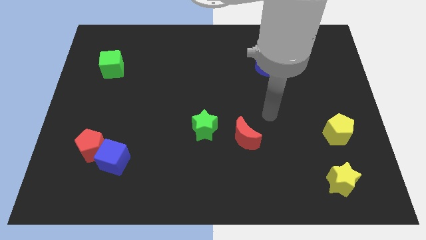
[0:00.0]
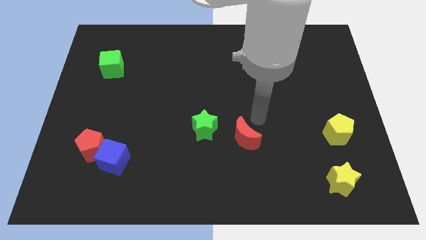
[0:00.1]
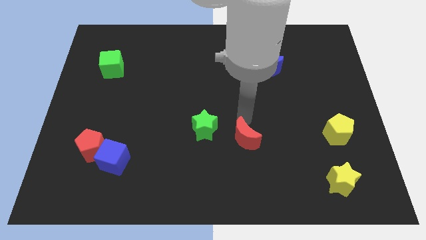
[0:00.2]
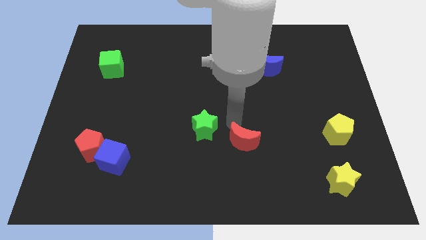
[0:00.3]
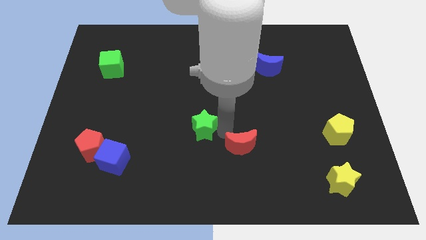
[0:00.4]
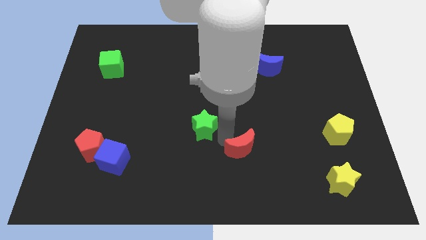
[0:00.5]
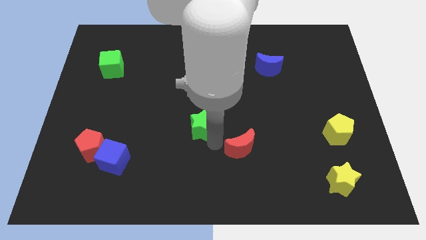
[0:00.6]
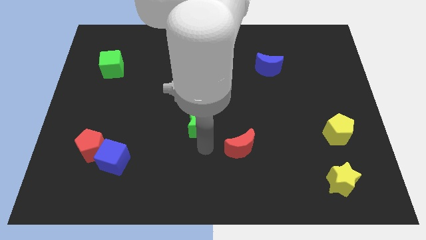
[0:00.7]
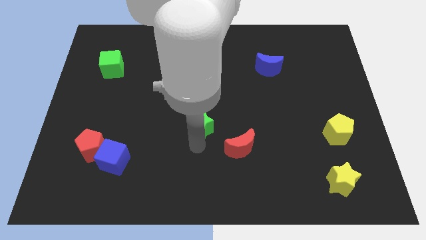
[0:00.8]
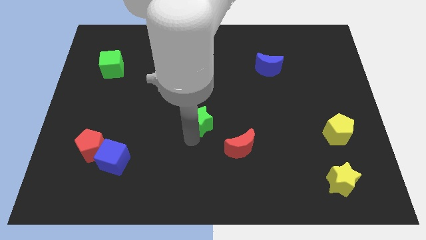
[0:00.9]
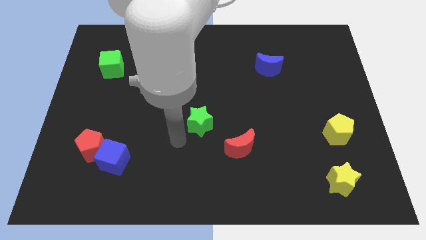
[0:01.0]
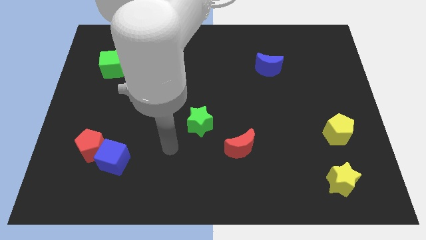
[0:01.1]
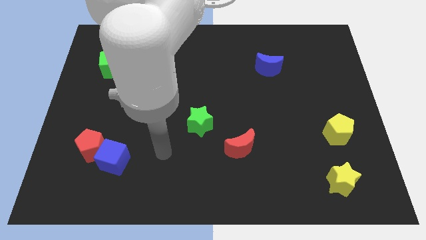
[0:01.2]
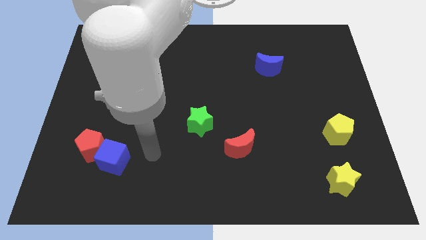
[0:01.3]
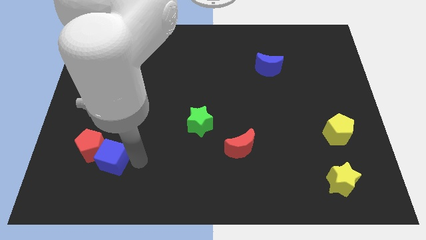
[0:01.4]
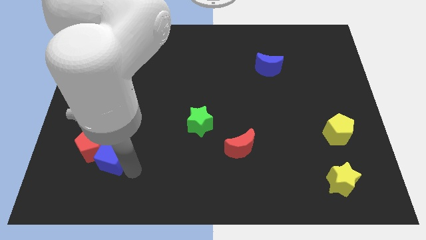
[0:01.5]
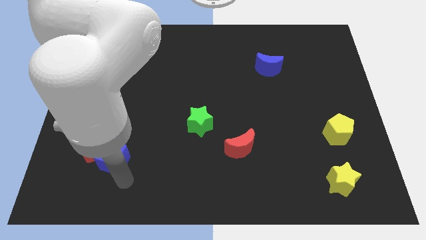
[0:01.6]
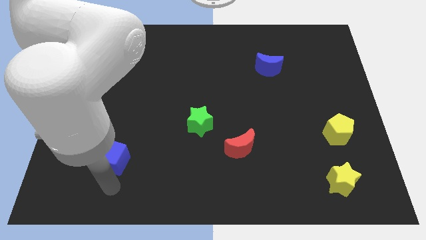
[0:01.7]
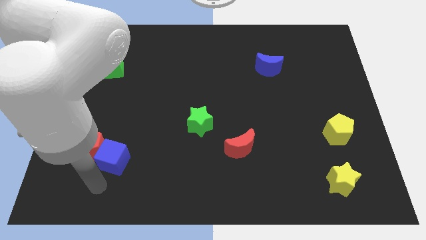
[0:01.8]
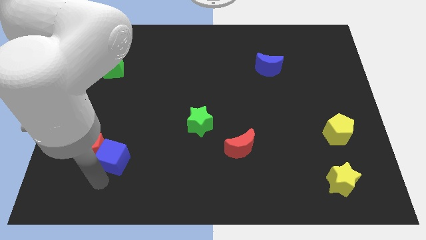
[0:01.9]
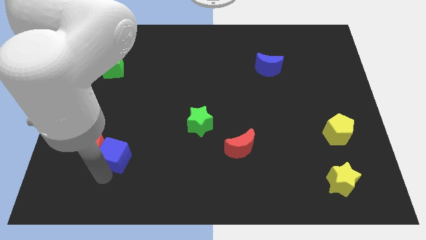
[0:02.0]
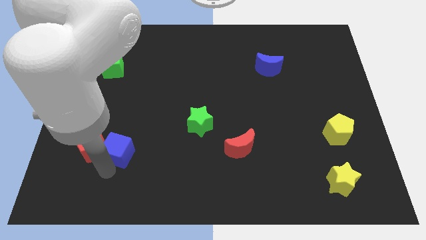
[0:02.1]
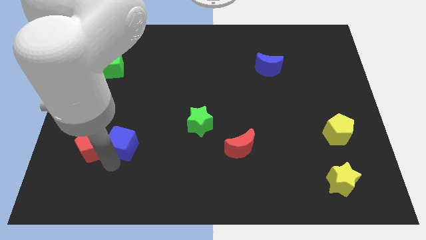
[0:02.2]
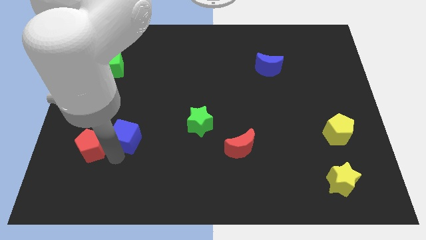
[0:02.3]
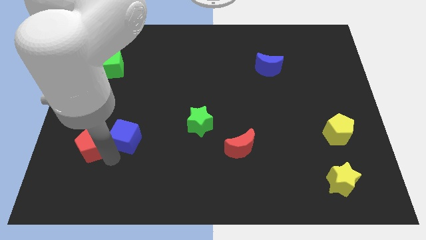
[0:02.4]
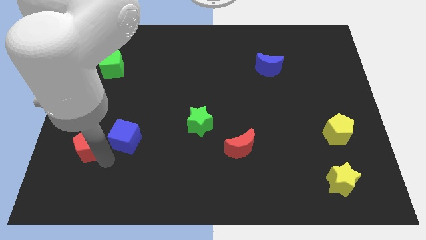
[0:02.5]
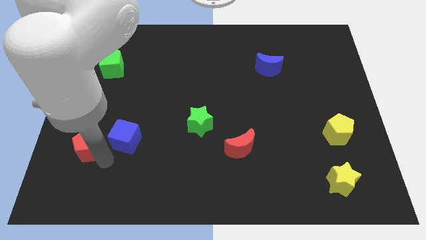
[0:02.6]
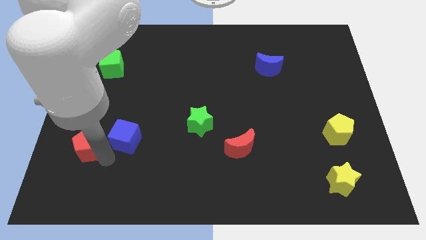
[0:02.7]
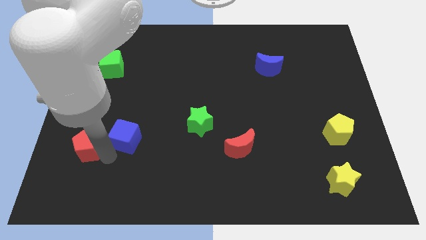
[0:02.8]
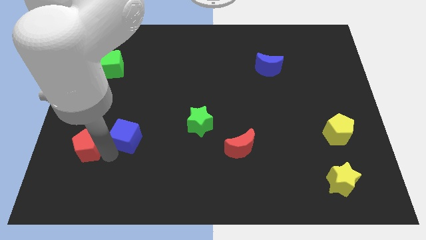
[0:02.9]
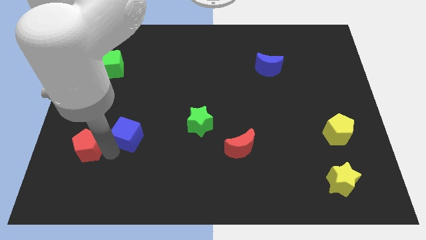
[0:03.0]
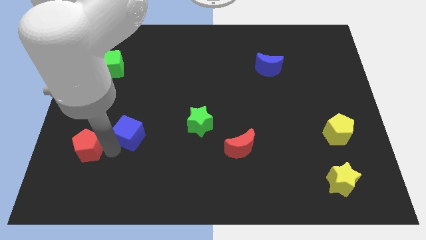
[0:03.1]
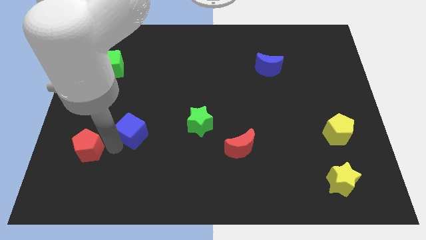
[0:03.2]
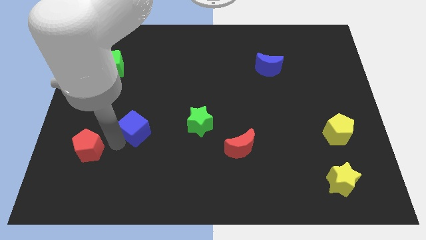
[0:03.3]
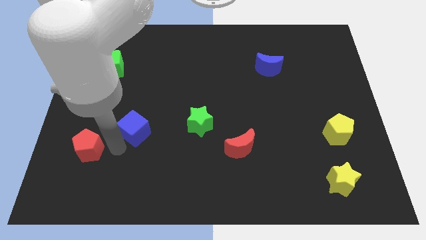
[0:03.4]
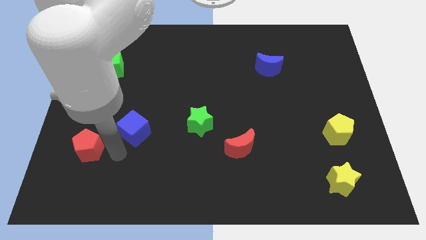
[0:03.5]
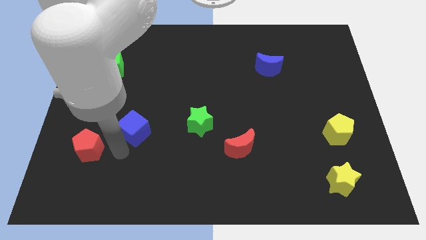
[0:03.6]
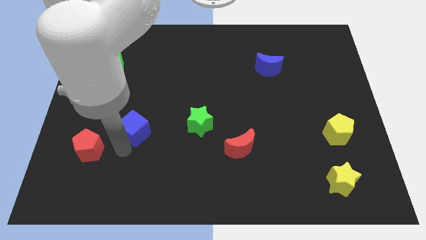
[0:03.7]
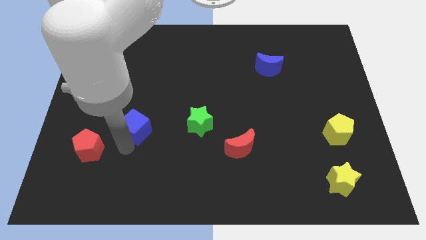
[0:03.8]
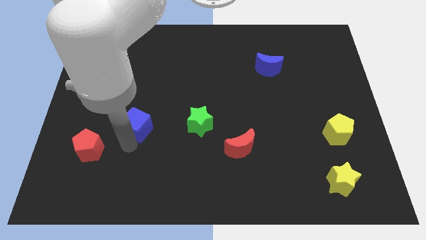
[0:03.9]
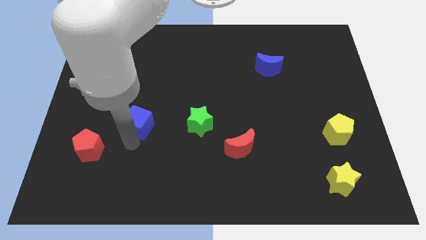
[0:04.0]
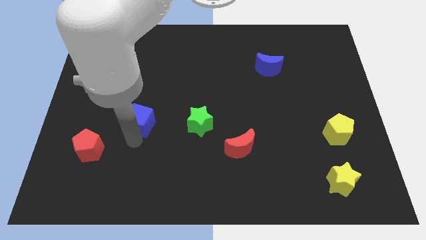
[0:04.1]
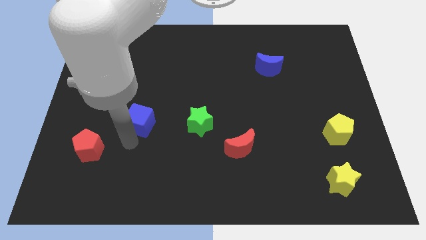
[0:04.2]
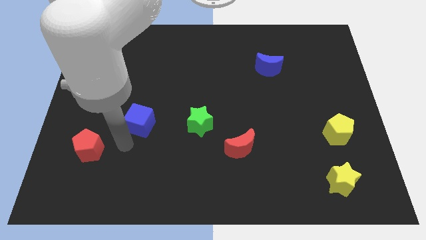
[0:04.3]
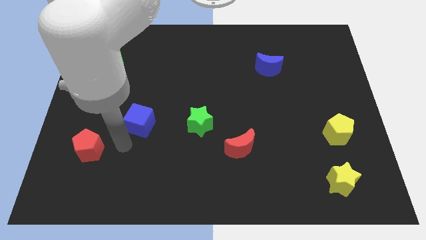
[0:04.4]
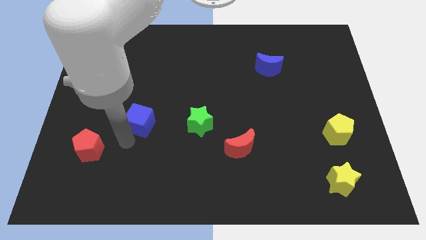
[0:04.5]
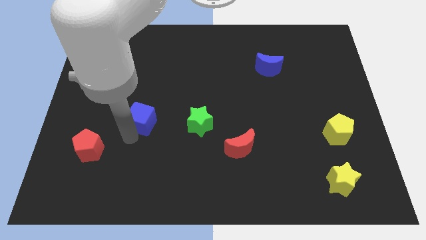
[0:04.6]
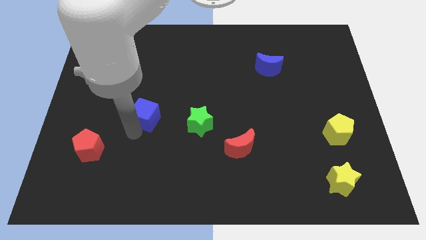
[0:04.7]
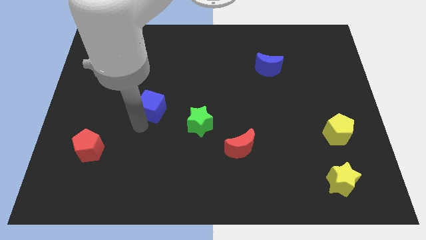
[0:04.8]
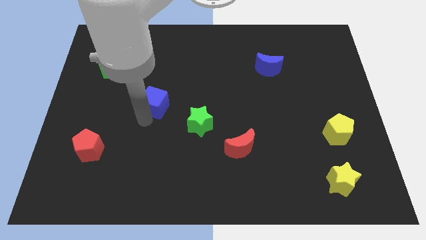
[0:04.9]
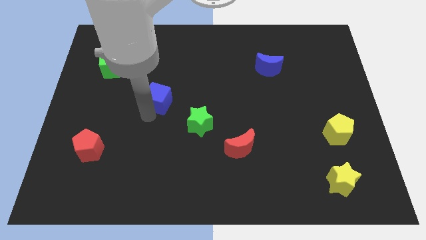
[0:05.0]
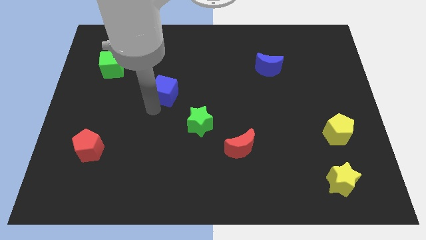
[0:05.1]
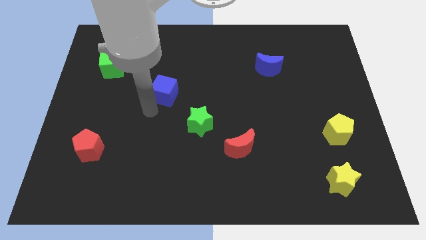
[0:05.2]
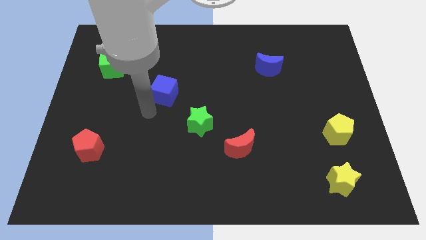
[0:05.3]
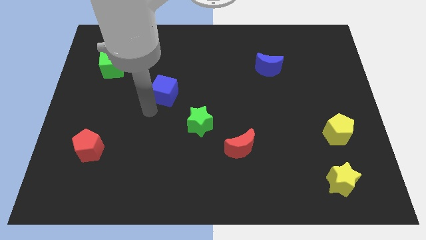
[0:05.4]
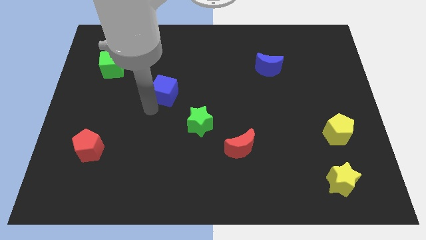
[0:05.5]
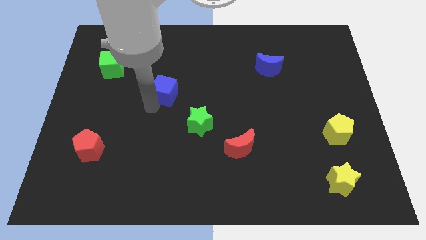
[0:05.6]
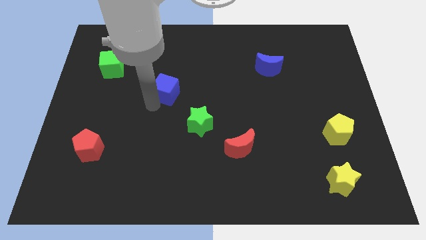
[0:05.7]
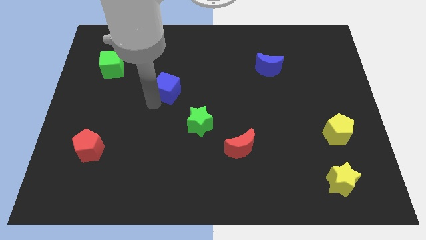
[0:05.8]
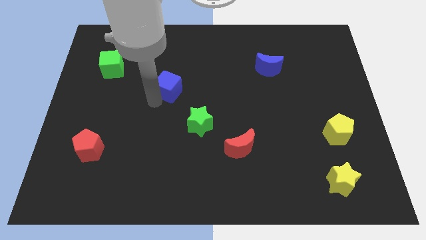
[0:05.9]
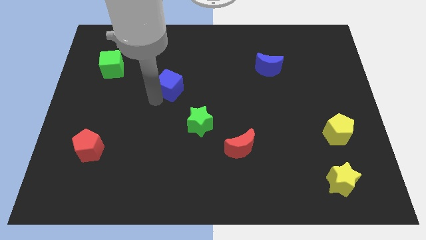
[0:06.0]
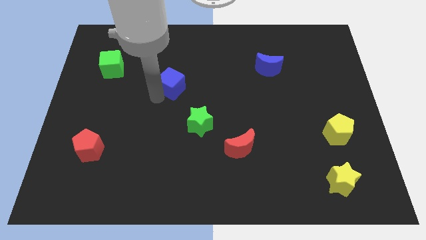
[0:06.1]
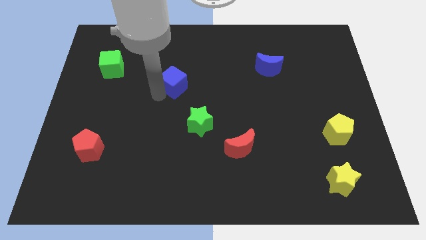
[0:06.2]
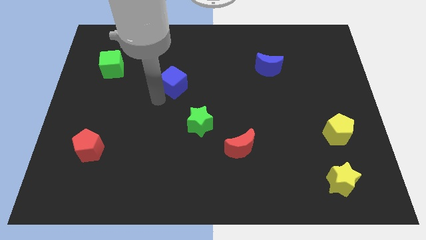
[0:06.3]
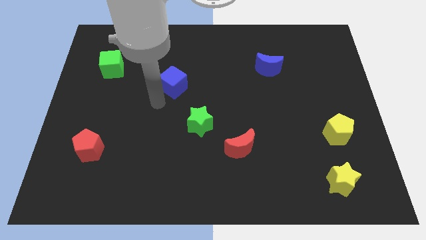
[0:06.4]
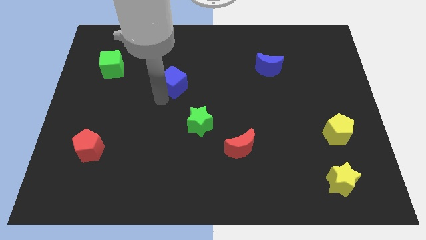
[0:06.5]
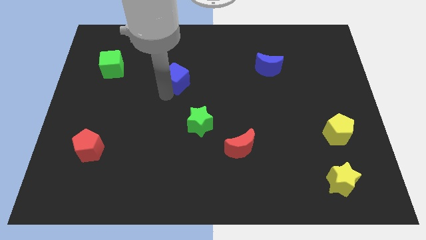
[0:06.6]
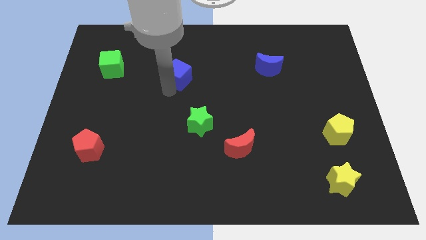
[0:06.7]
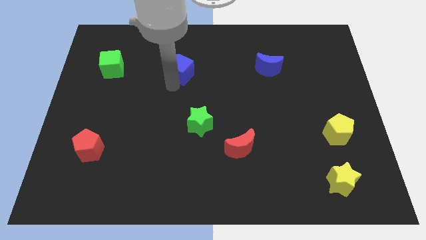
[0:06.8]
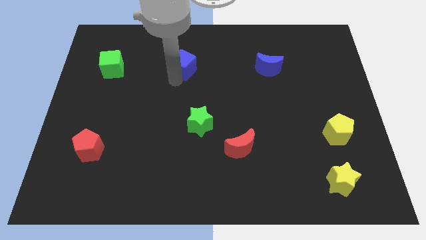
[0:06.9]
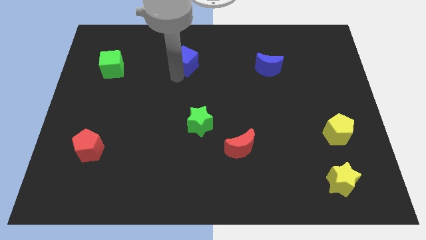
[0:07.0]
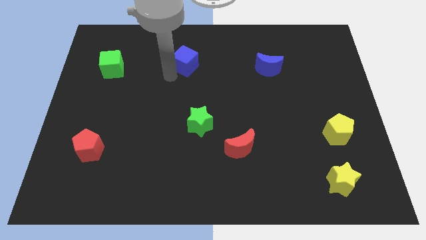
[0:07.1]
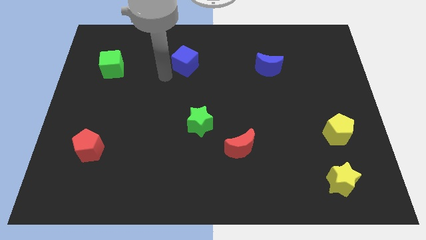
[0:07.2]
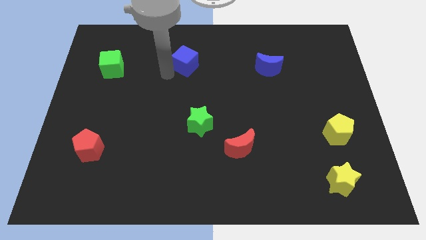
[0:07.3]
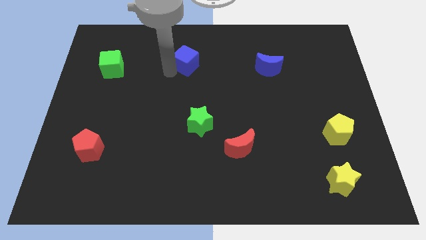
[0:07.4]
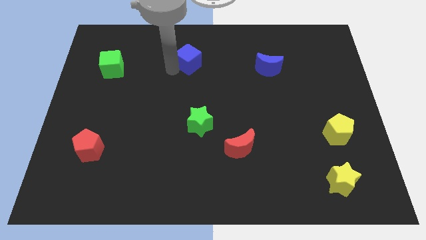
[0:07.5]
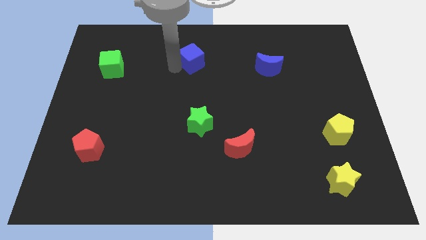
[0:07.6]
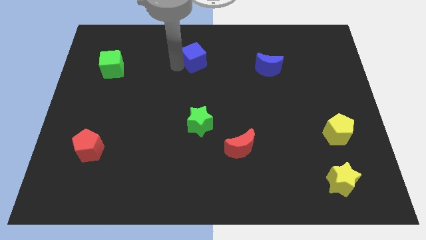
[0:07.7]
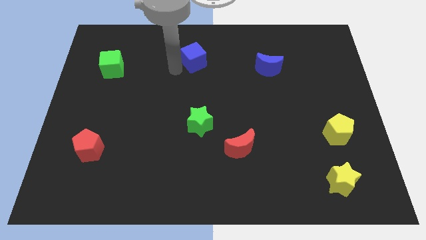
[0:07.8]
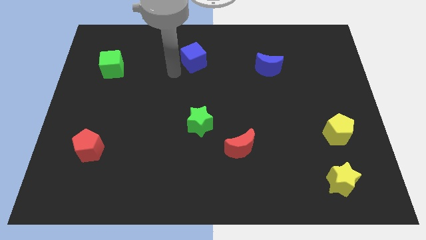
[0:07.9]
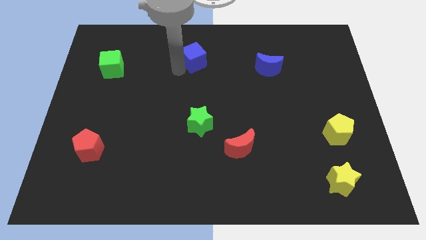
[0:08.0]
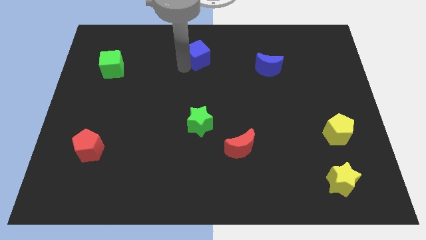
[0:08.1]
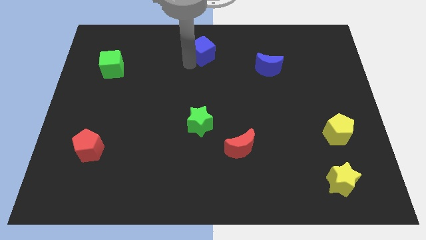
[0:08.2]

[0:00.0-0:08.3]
put the blue cube to the top side
